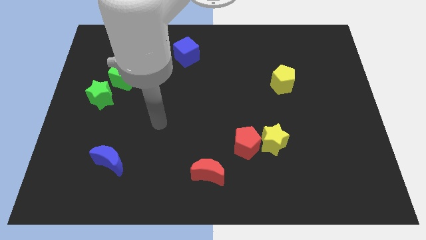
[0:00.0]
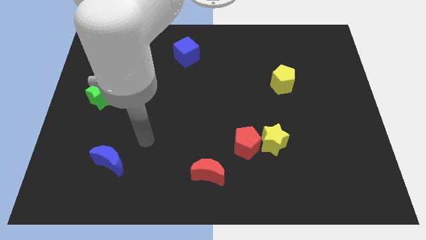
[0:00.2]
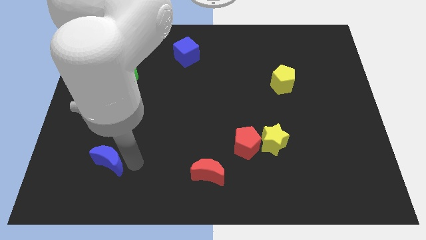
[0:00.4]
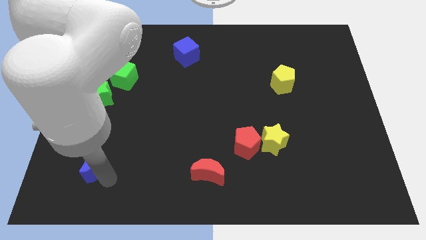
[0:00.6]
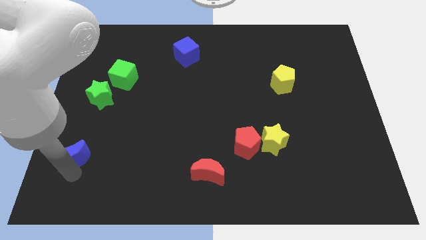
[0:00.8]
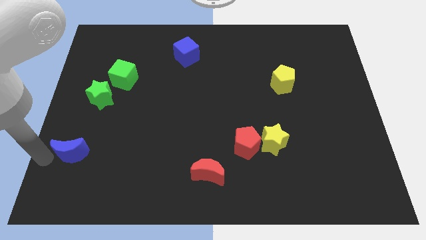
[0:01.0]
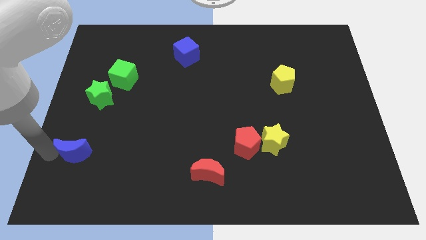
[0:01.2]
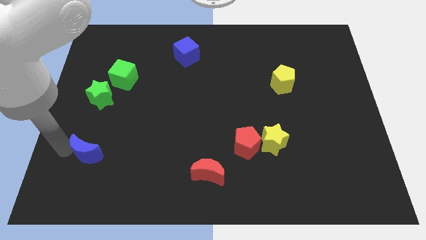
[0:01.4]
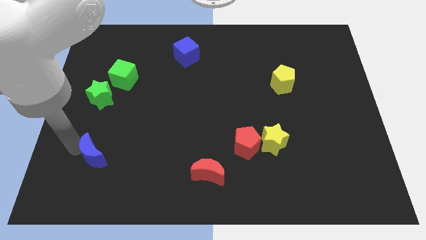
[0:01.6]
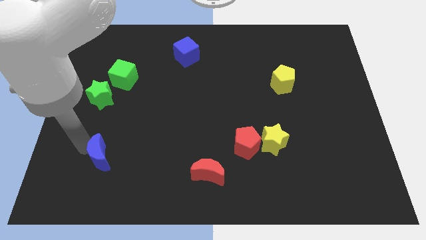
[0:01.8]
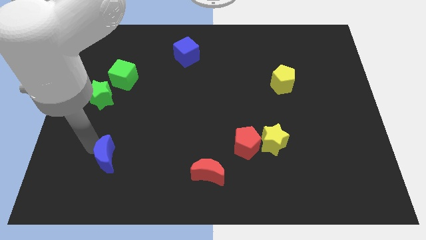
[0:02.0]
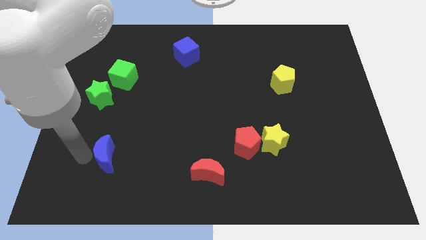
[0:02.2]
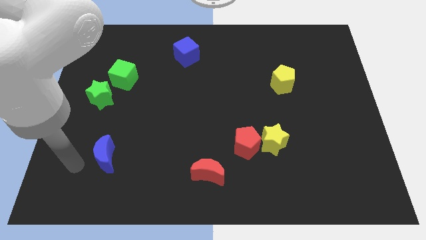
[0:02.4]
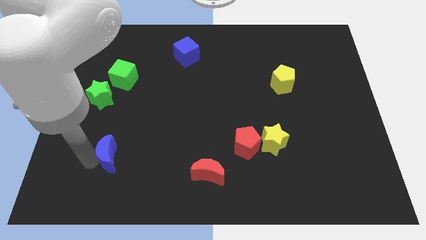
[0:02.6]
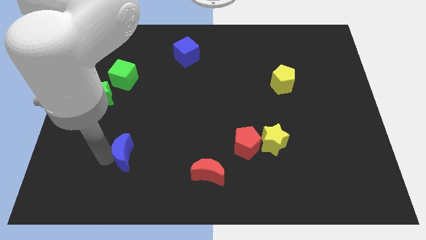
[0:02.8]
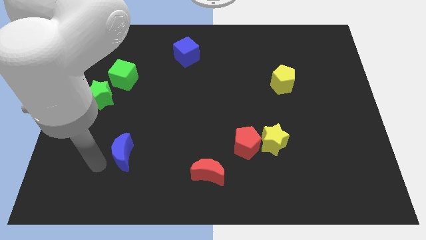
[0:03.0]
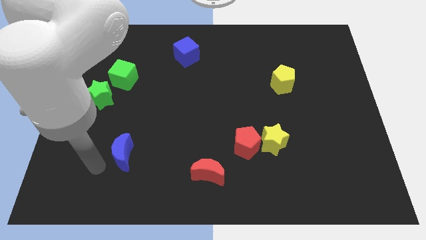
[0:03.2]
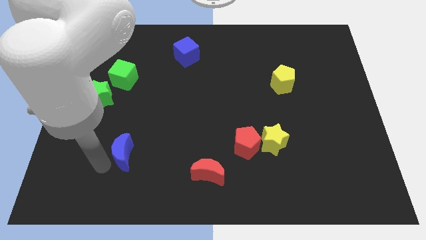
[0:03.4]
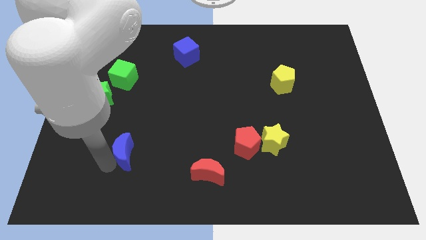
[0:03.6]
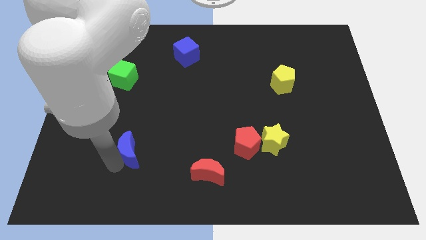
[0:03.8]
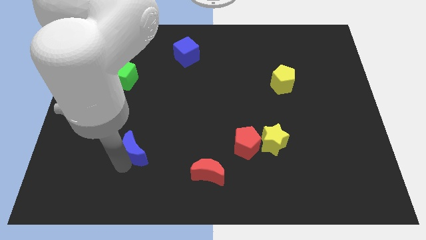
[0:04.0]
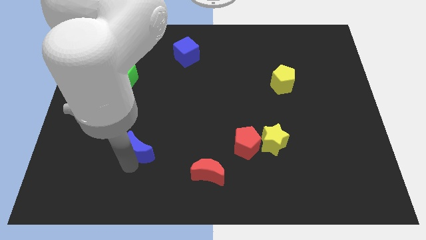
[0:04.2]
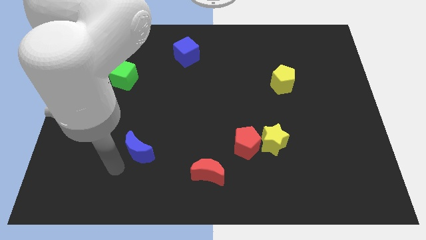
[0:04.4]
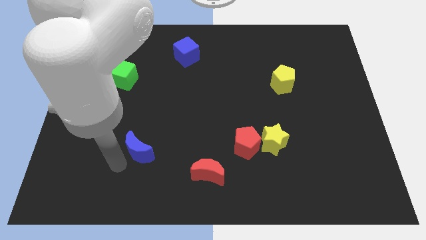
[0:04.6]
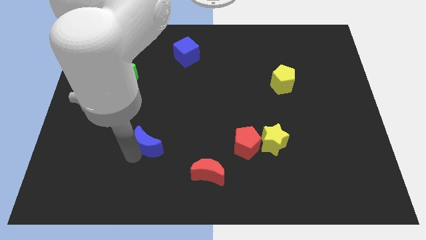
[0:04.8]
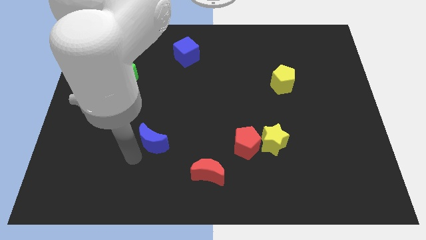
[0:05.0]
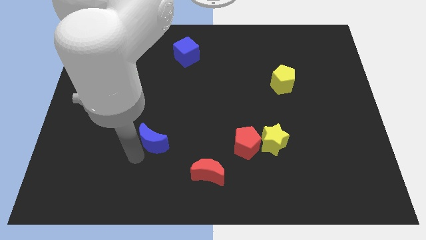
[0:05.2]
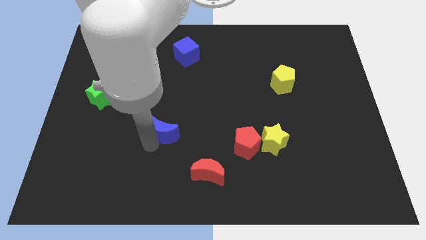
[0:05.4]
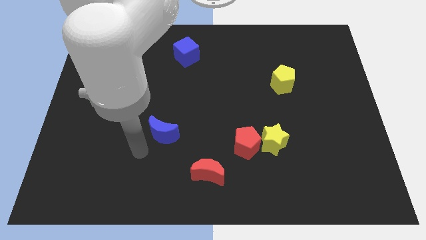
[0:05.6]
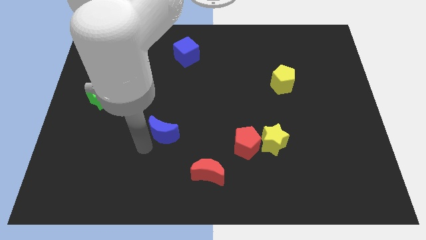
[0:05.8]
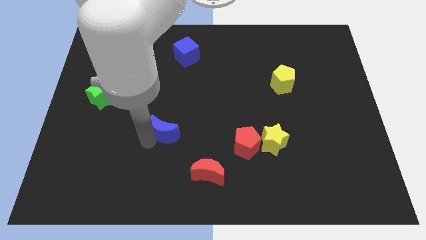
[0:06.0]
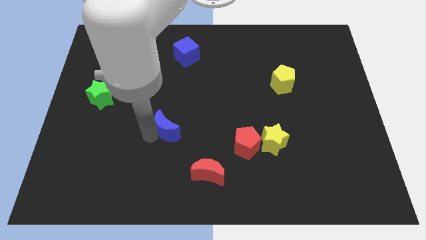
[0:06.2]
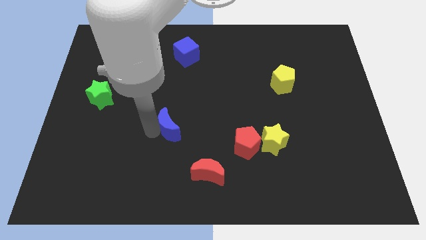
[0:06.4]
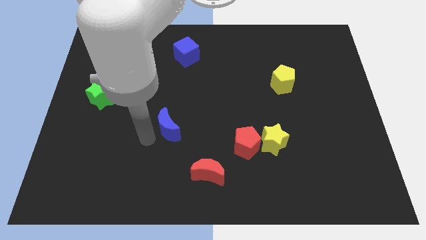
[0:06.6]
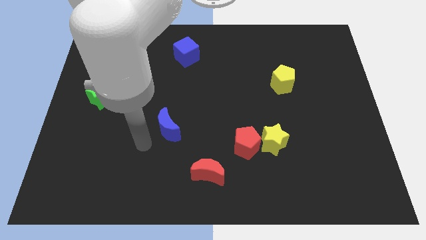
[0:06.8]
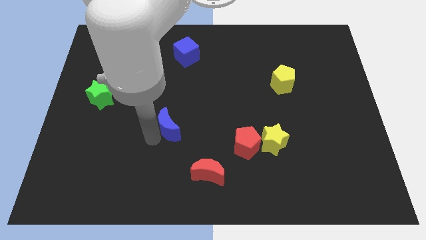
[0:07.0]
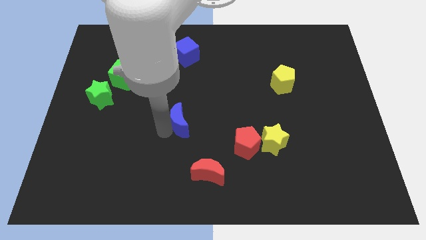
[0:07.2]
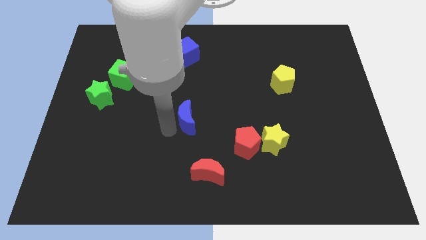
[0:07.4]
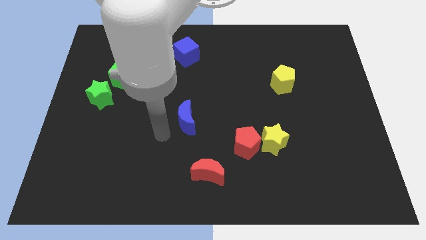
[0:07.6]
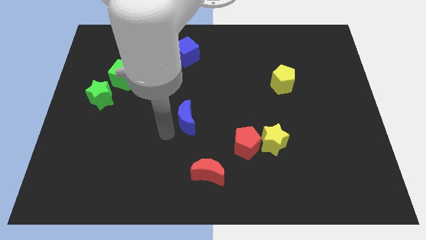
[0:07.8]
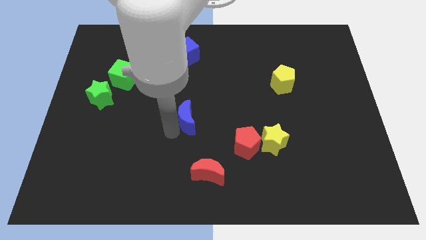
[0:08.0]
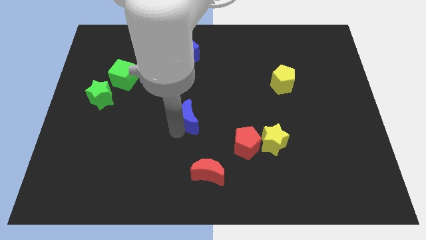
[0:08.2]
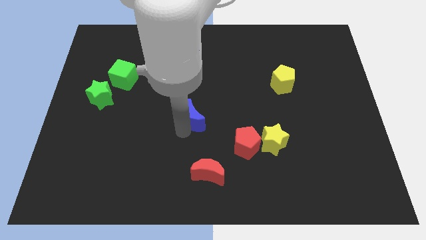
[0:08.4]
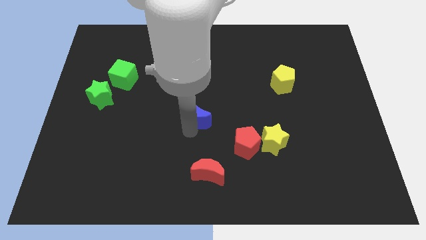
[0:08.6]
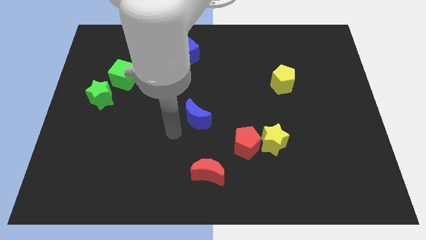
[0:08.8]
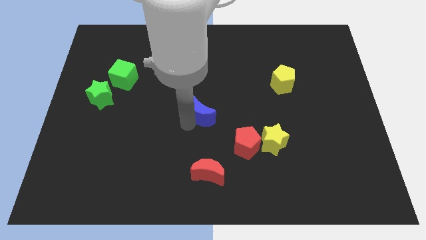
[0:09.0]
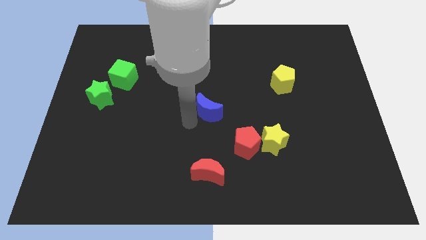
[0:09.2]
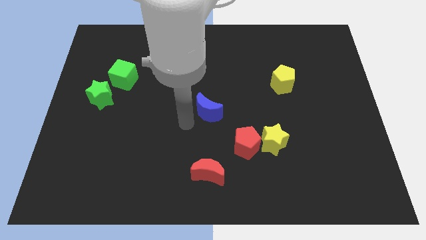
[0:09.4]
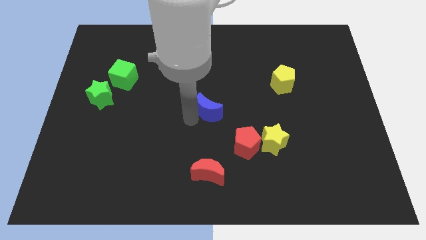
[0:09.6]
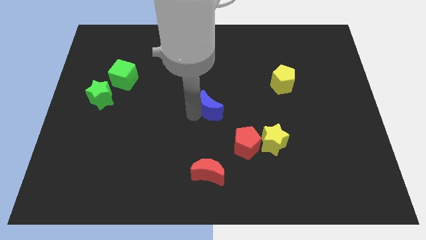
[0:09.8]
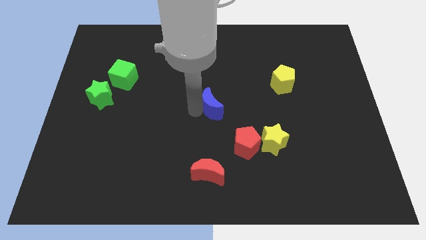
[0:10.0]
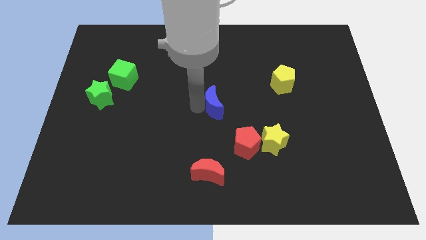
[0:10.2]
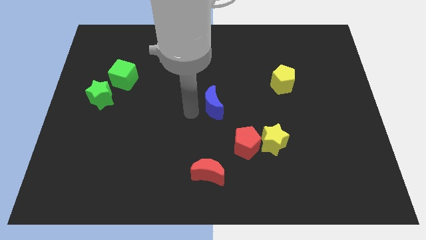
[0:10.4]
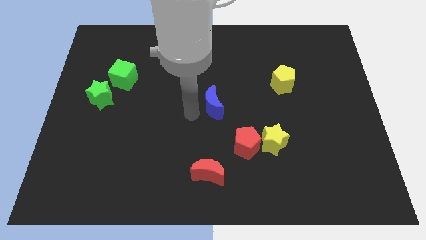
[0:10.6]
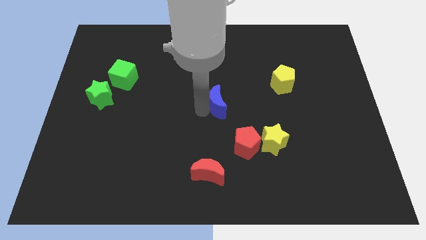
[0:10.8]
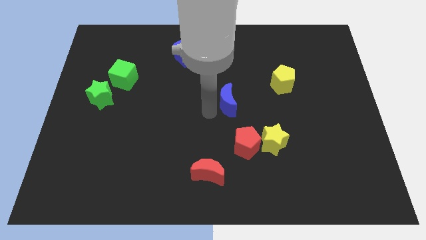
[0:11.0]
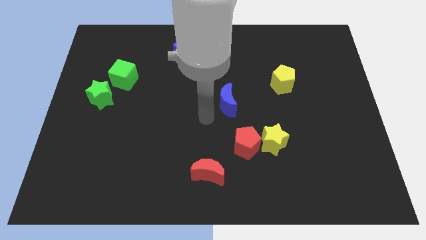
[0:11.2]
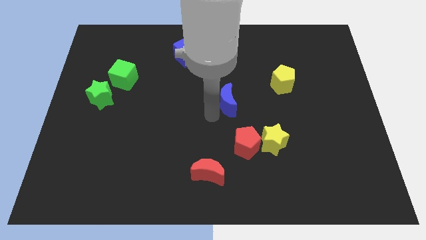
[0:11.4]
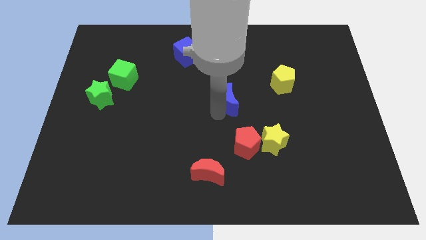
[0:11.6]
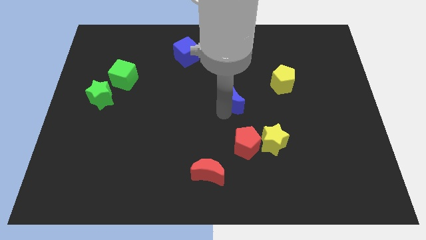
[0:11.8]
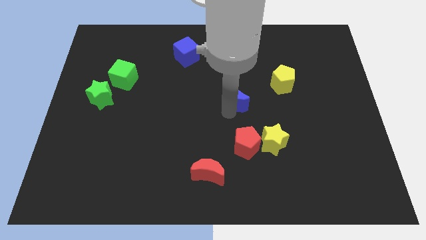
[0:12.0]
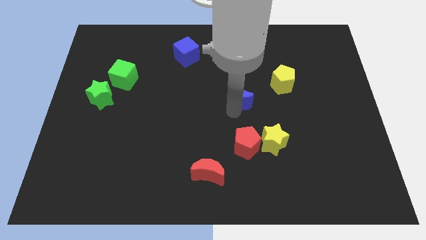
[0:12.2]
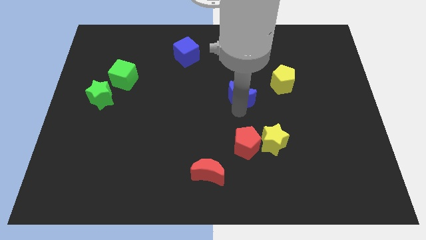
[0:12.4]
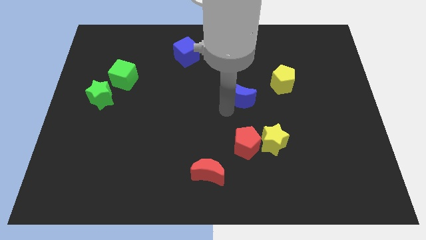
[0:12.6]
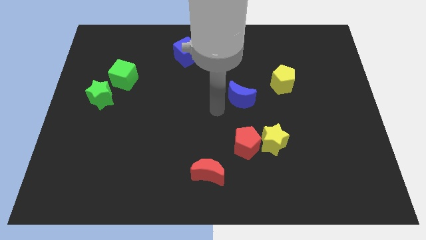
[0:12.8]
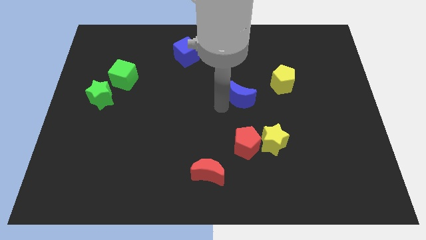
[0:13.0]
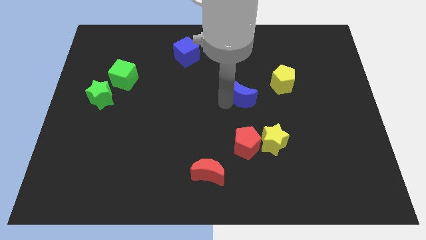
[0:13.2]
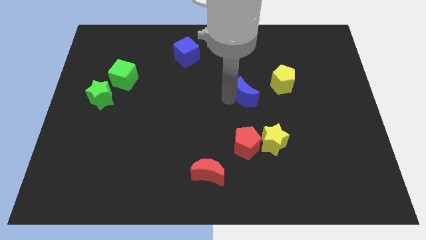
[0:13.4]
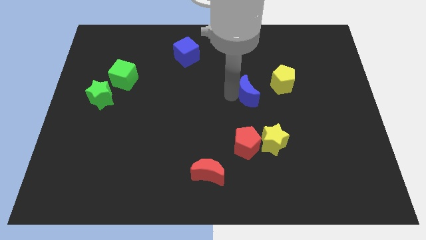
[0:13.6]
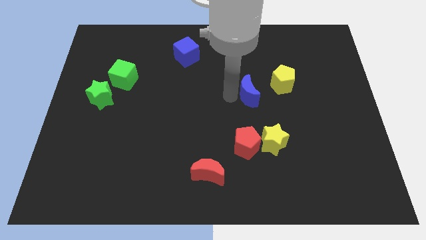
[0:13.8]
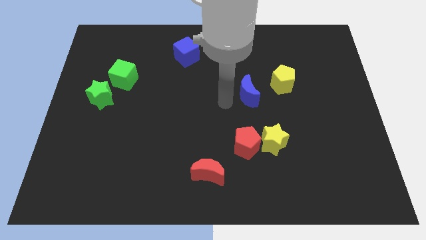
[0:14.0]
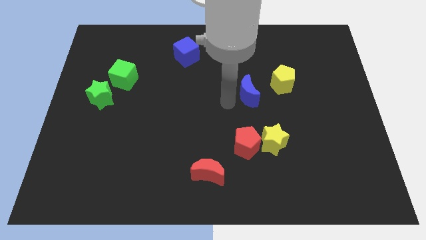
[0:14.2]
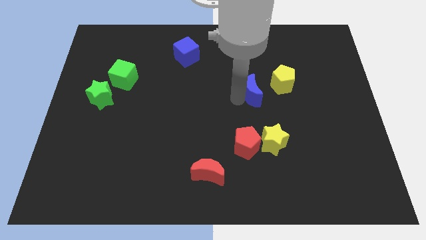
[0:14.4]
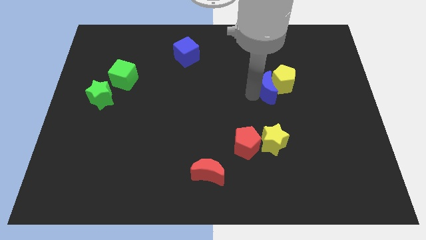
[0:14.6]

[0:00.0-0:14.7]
slide the blue moon towards the yellow pentagon
